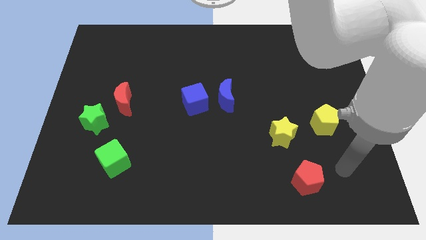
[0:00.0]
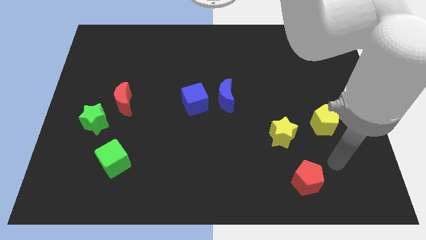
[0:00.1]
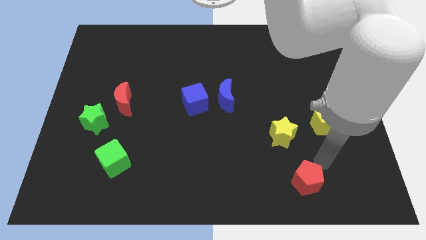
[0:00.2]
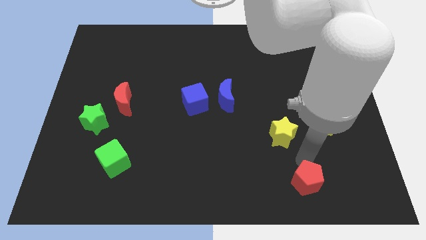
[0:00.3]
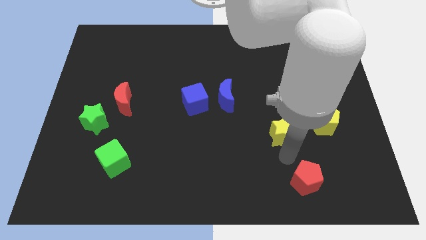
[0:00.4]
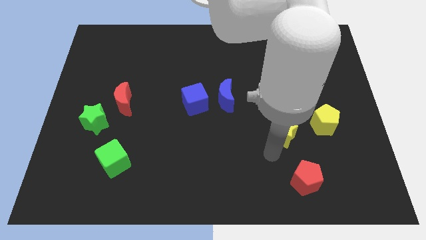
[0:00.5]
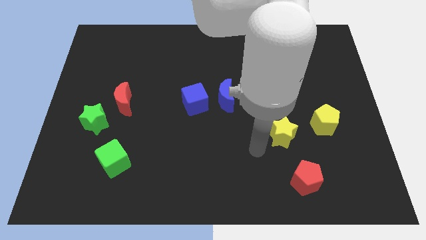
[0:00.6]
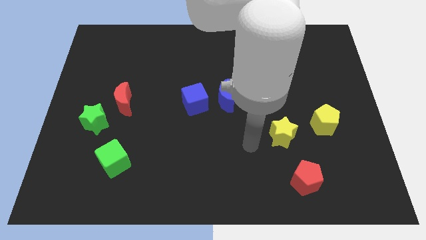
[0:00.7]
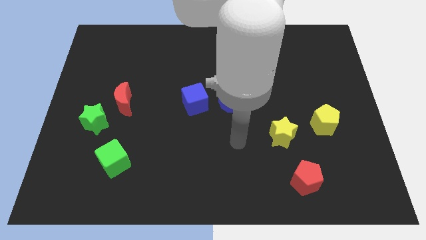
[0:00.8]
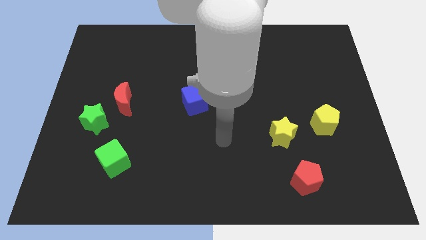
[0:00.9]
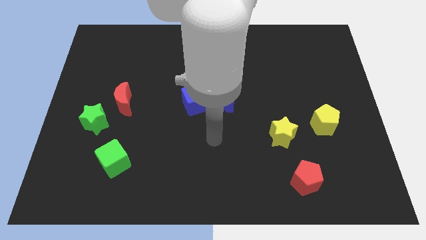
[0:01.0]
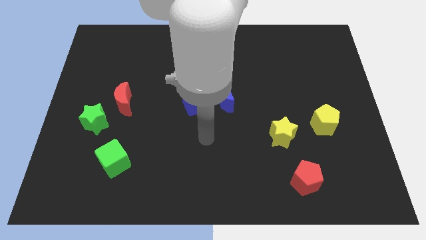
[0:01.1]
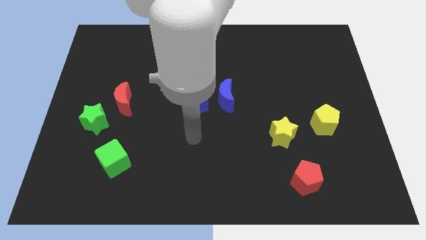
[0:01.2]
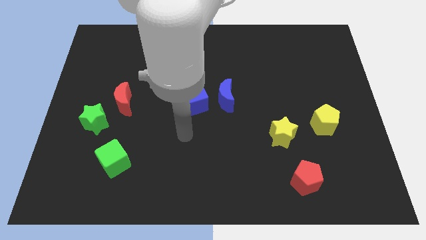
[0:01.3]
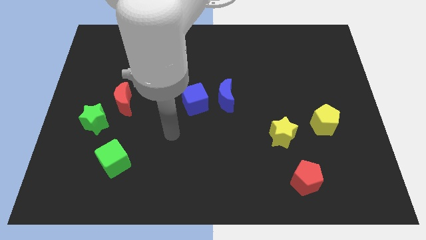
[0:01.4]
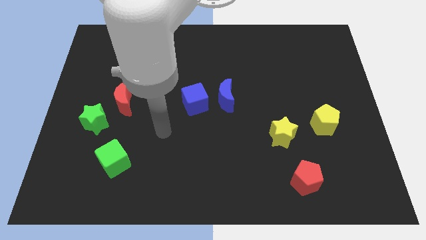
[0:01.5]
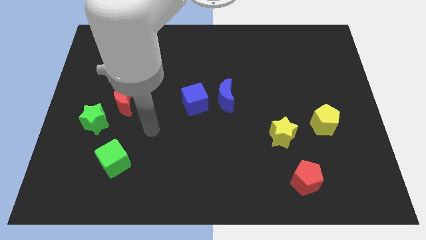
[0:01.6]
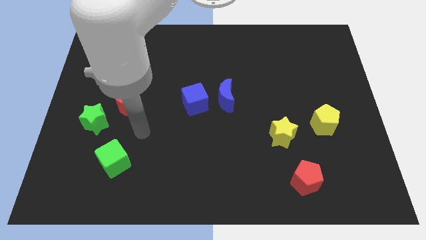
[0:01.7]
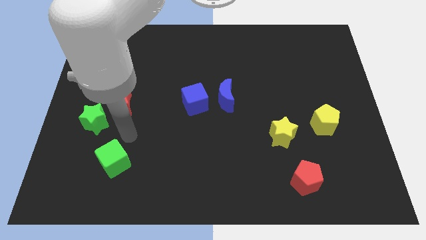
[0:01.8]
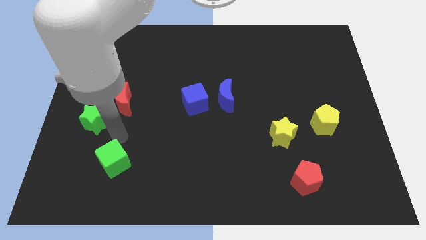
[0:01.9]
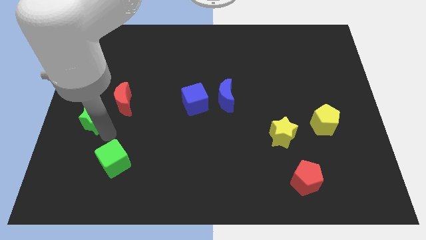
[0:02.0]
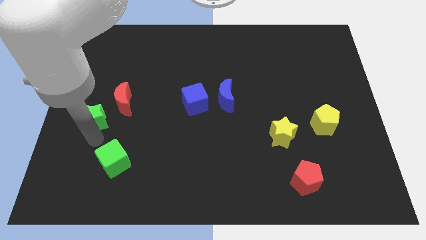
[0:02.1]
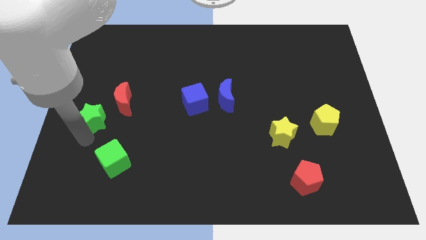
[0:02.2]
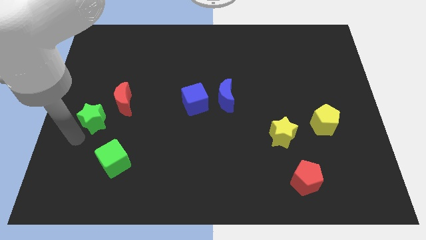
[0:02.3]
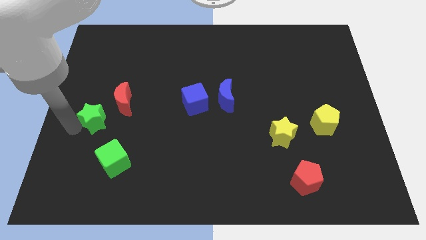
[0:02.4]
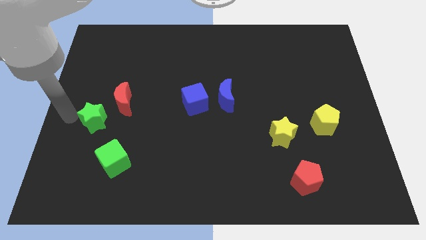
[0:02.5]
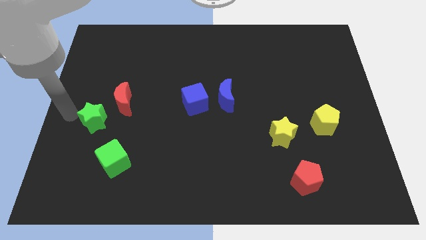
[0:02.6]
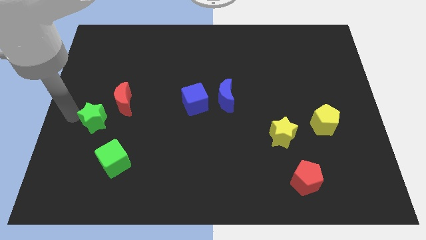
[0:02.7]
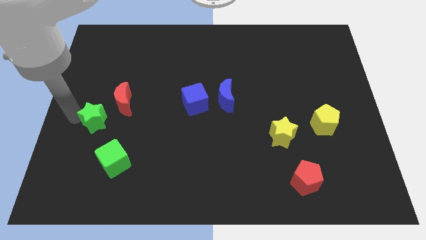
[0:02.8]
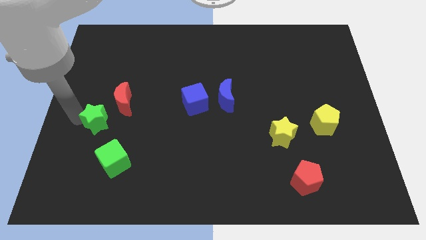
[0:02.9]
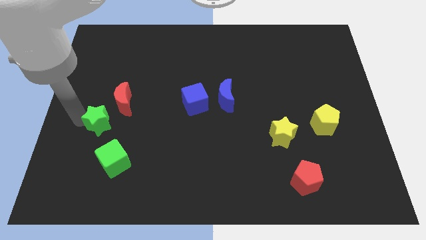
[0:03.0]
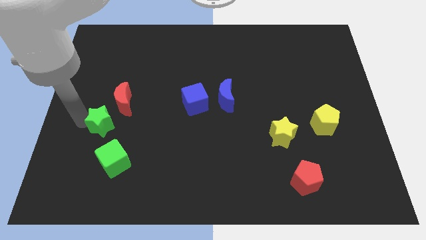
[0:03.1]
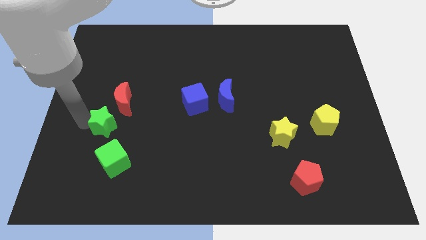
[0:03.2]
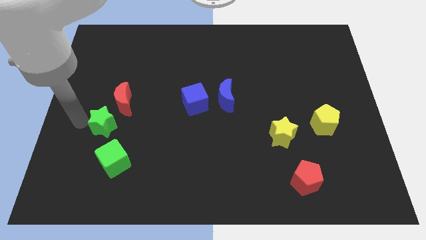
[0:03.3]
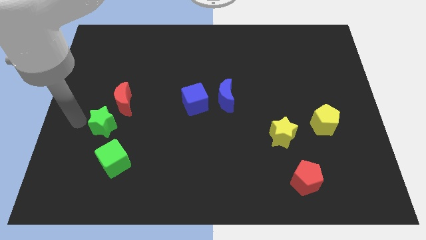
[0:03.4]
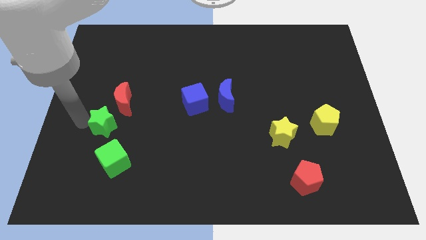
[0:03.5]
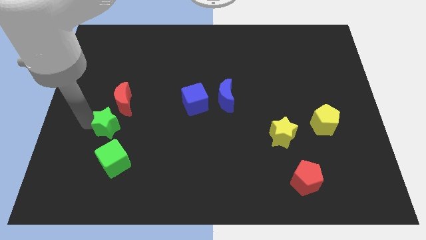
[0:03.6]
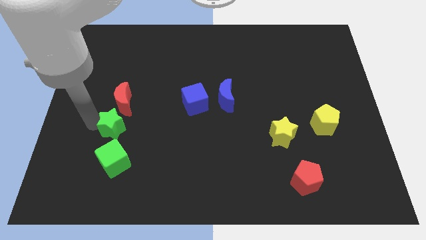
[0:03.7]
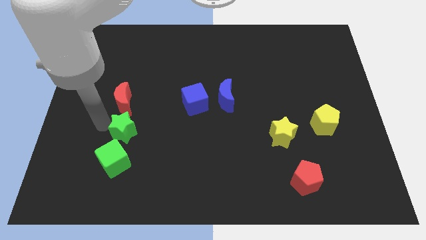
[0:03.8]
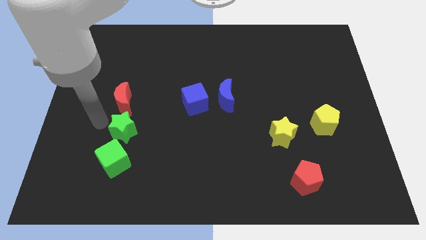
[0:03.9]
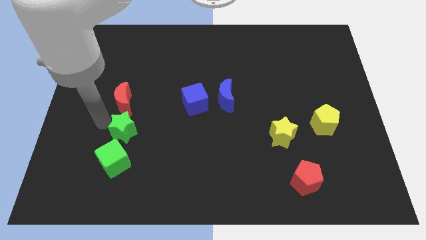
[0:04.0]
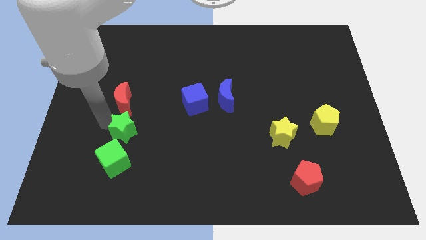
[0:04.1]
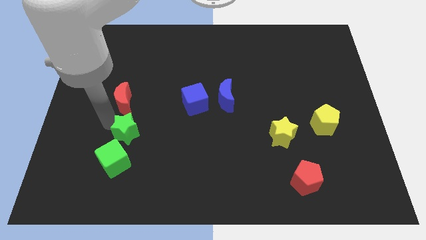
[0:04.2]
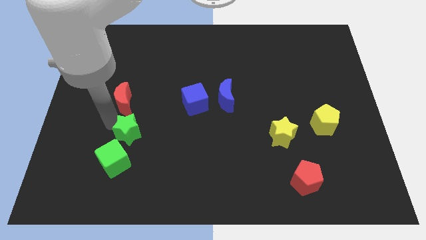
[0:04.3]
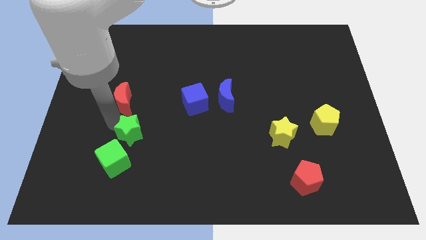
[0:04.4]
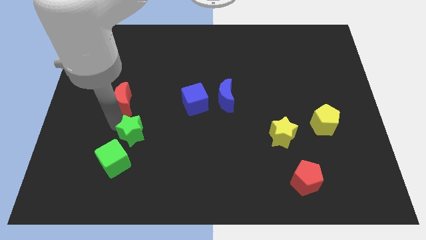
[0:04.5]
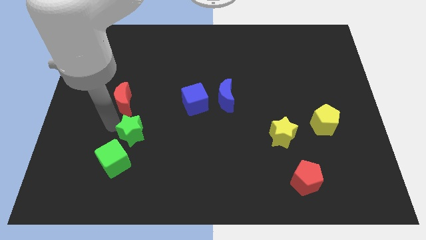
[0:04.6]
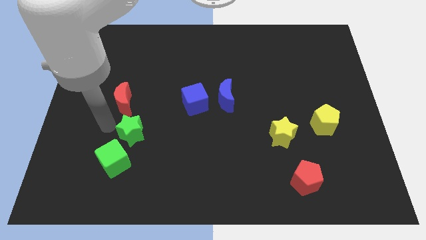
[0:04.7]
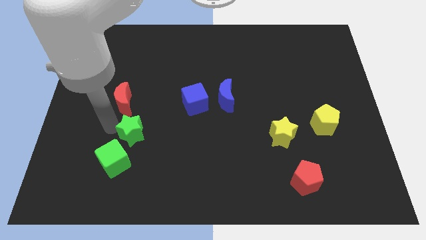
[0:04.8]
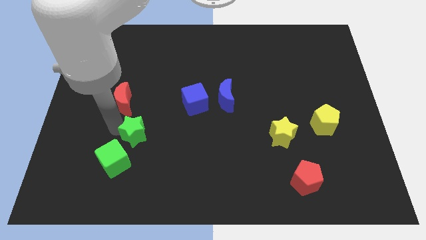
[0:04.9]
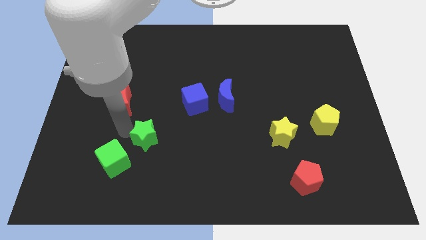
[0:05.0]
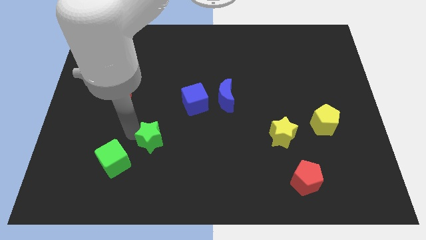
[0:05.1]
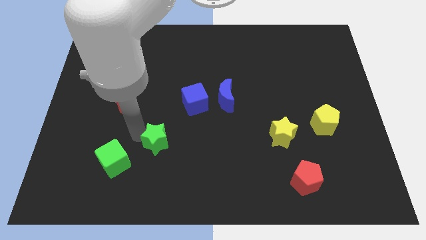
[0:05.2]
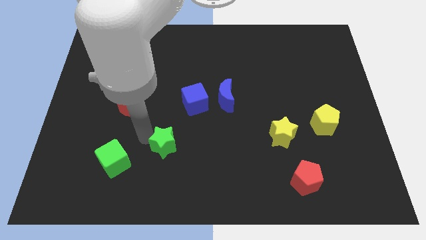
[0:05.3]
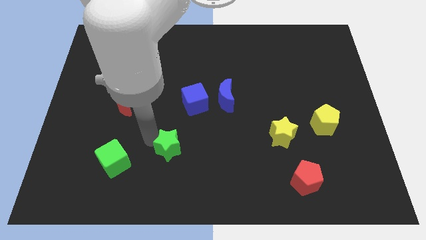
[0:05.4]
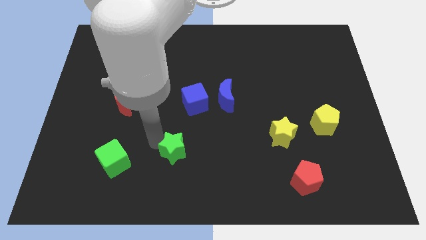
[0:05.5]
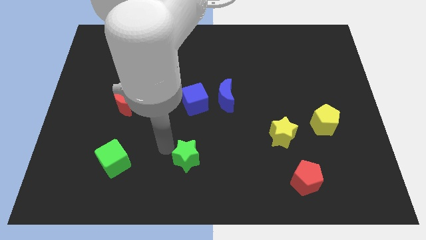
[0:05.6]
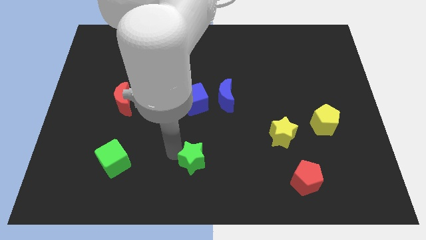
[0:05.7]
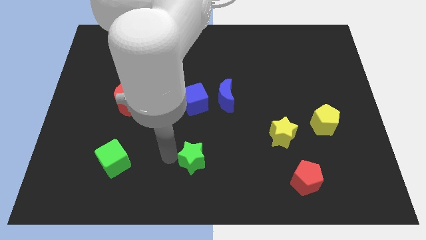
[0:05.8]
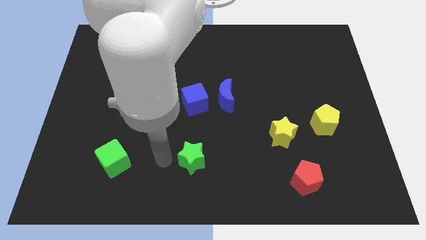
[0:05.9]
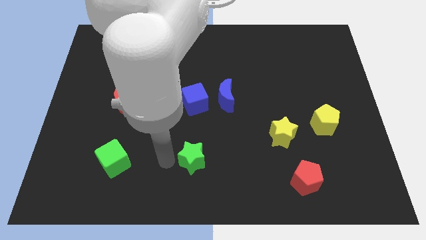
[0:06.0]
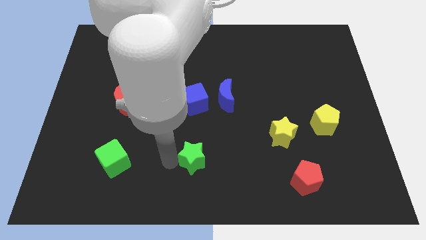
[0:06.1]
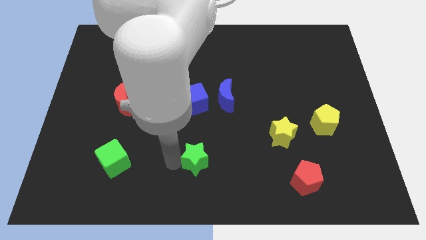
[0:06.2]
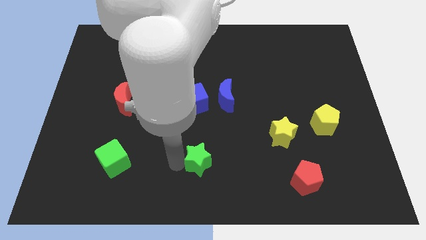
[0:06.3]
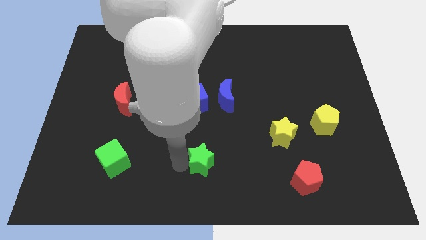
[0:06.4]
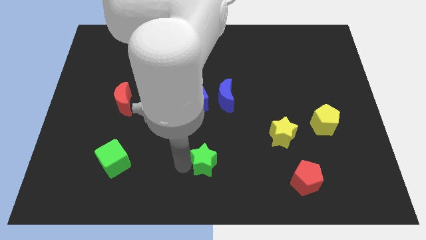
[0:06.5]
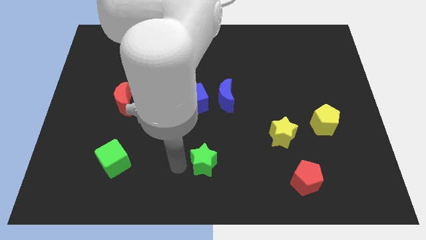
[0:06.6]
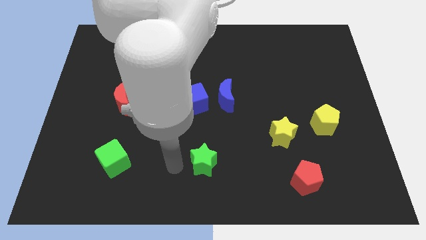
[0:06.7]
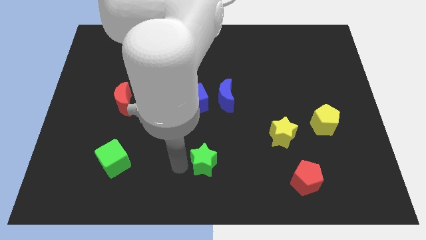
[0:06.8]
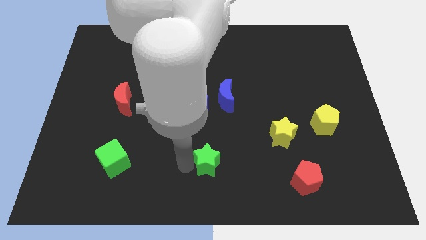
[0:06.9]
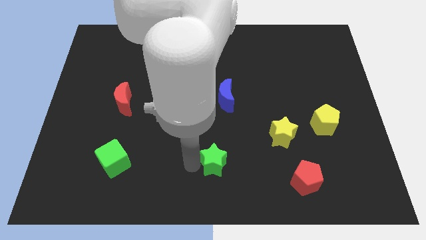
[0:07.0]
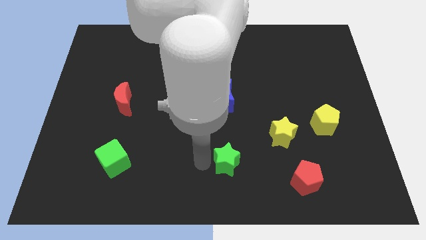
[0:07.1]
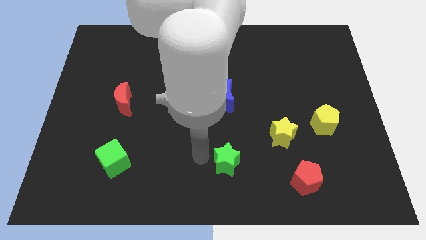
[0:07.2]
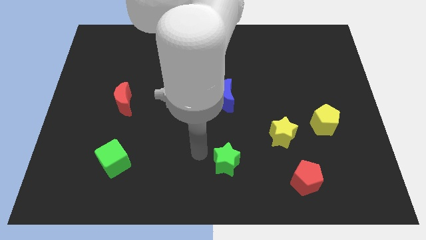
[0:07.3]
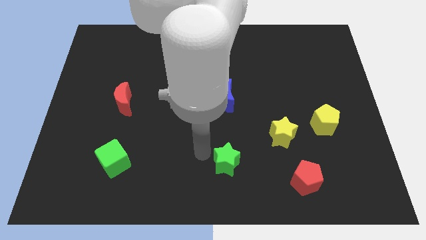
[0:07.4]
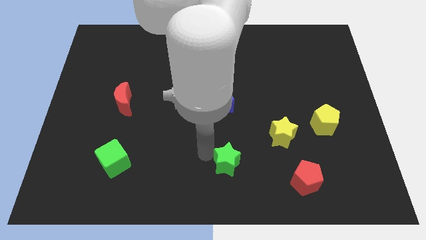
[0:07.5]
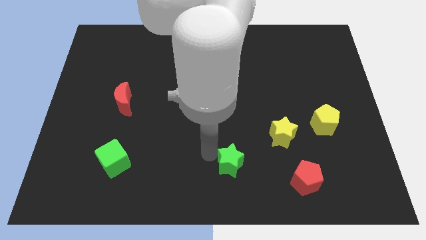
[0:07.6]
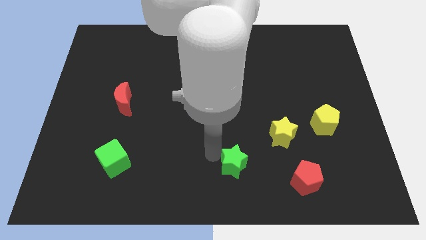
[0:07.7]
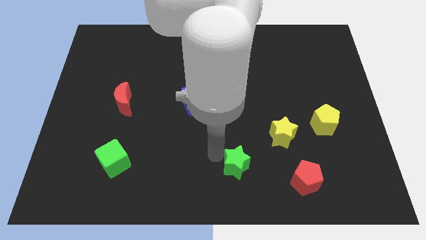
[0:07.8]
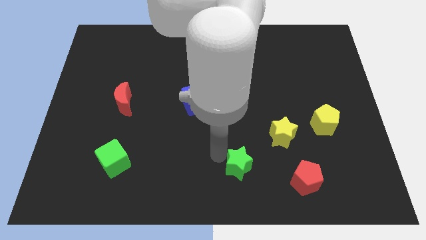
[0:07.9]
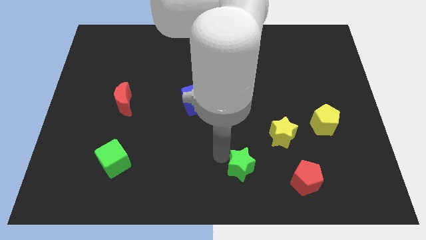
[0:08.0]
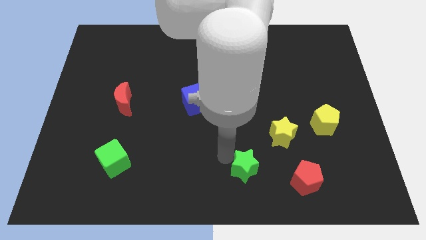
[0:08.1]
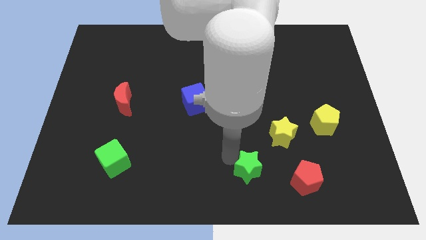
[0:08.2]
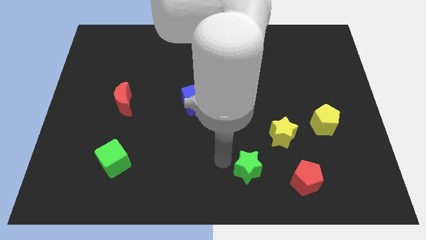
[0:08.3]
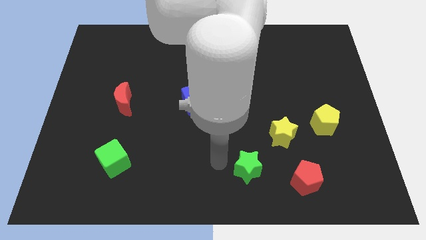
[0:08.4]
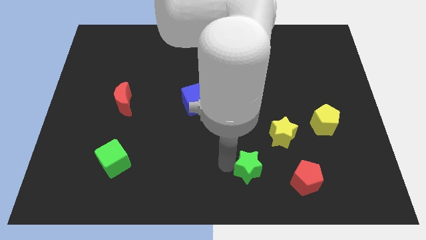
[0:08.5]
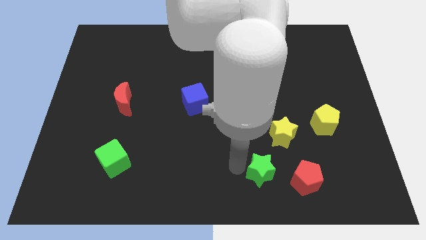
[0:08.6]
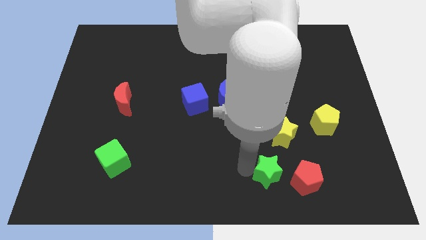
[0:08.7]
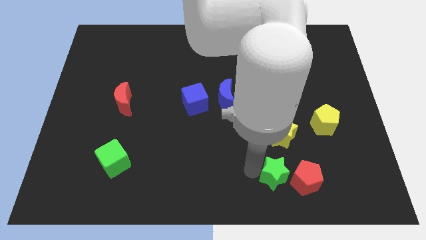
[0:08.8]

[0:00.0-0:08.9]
put the green star to the red pentagon
